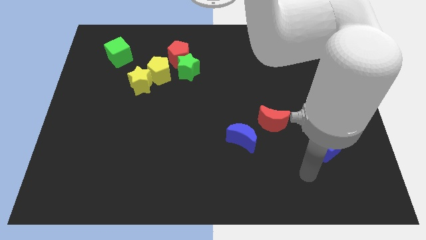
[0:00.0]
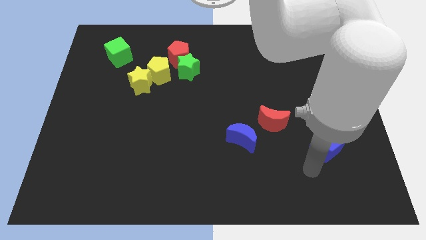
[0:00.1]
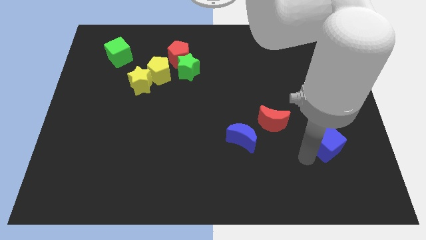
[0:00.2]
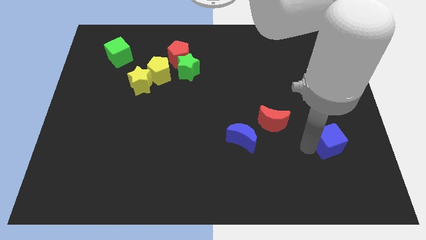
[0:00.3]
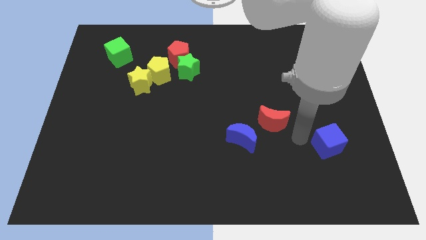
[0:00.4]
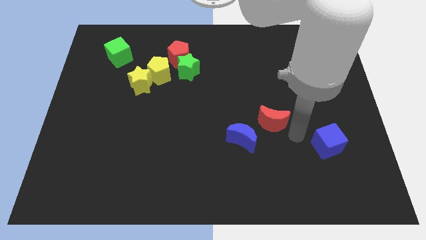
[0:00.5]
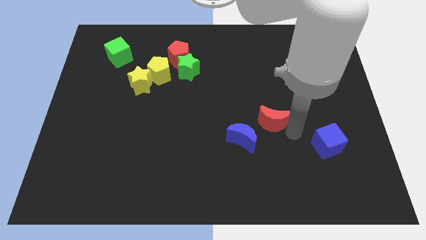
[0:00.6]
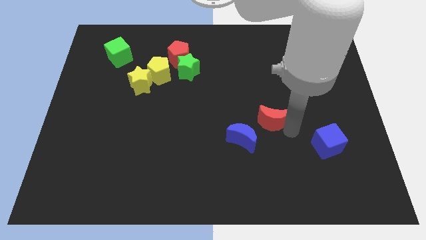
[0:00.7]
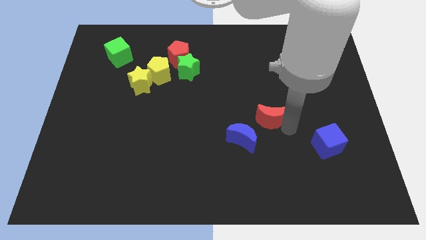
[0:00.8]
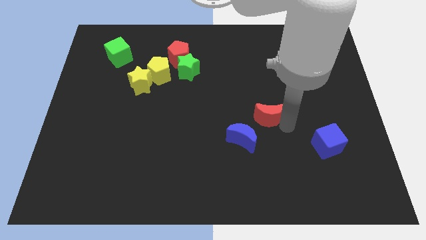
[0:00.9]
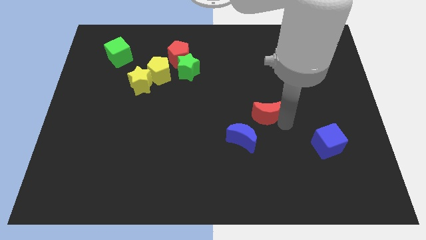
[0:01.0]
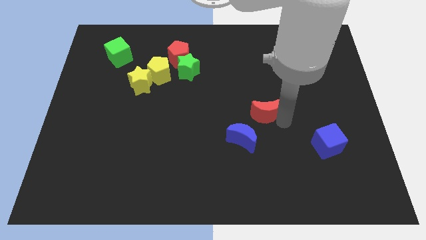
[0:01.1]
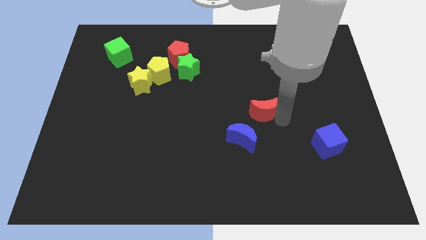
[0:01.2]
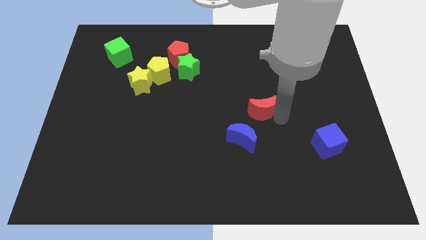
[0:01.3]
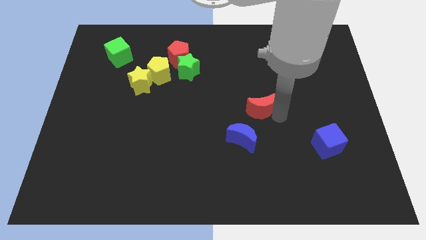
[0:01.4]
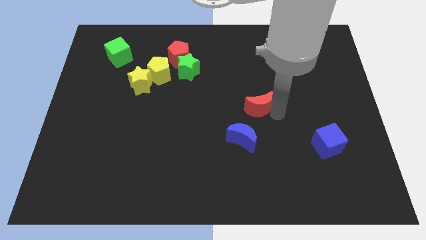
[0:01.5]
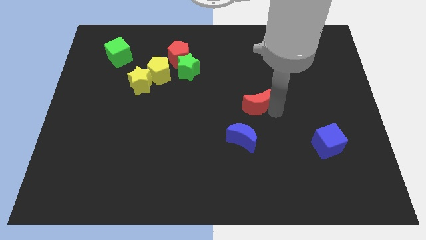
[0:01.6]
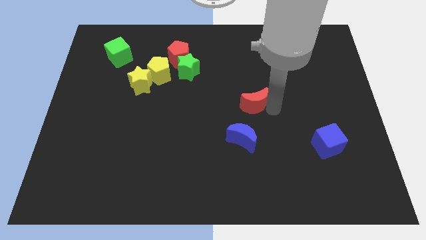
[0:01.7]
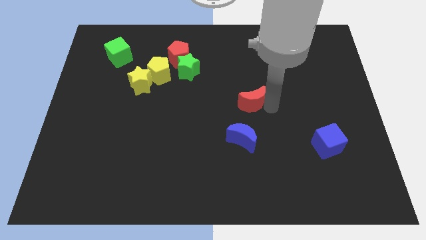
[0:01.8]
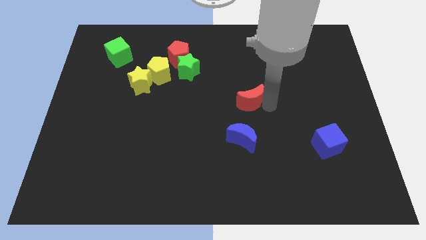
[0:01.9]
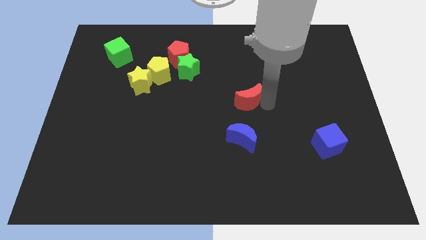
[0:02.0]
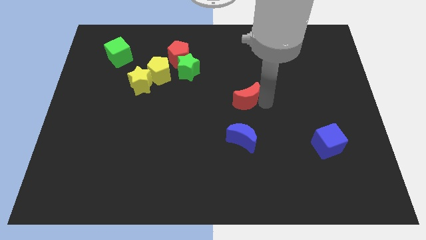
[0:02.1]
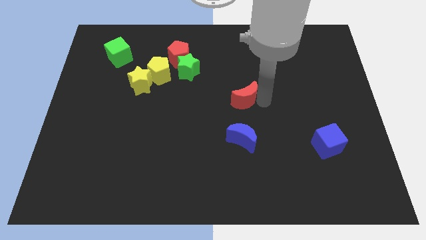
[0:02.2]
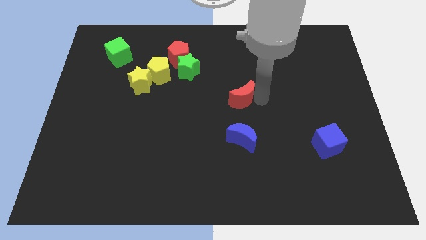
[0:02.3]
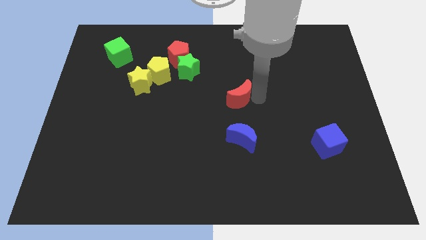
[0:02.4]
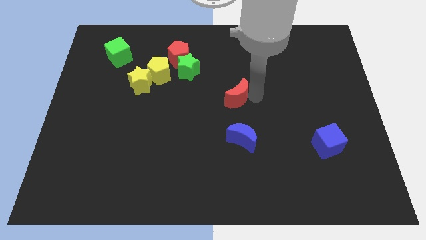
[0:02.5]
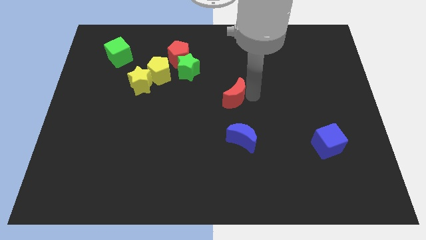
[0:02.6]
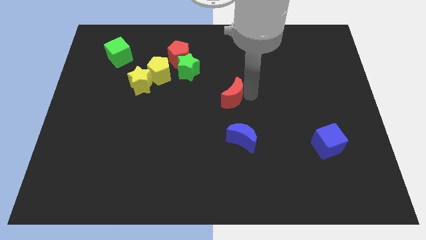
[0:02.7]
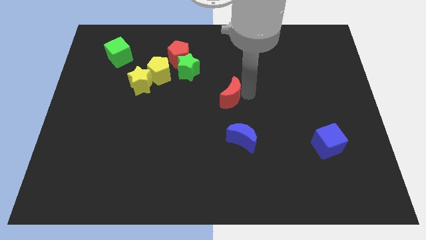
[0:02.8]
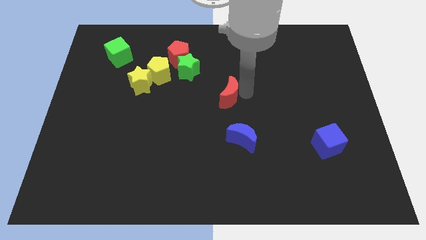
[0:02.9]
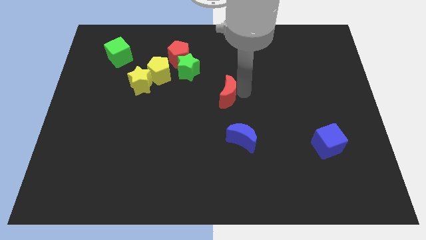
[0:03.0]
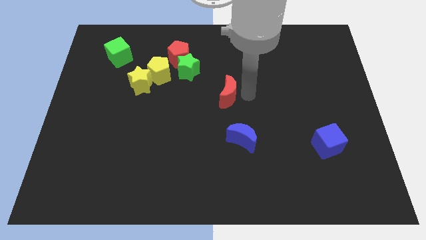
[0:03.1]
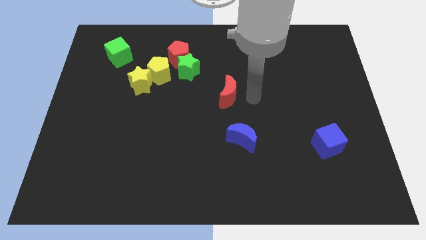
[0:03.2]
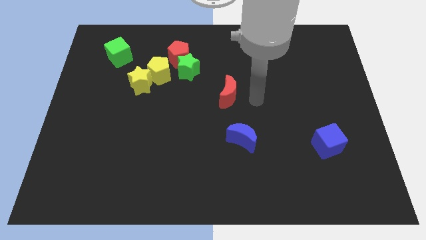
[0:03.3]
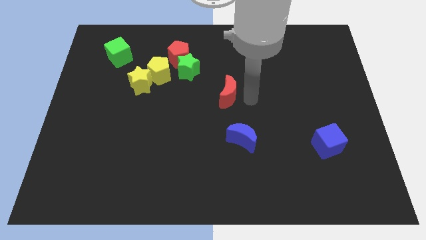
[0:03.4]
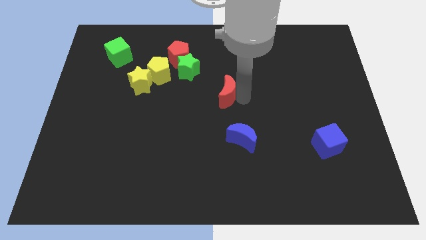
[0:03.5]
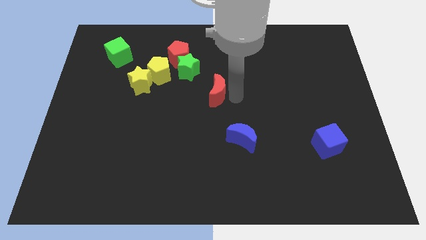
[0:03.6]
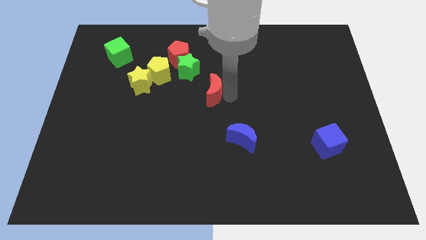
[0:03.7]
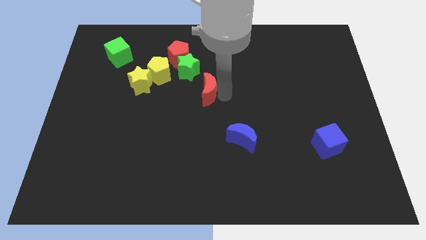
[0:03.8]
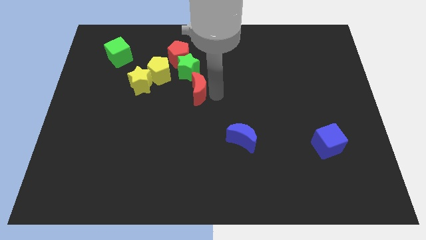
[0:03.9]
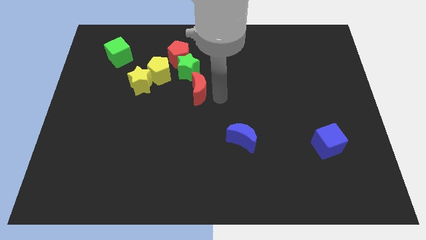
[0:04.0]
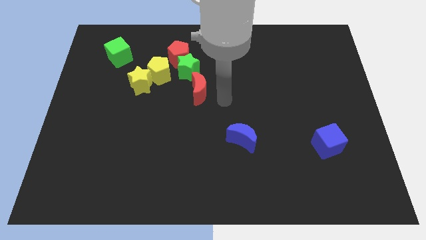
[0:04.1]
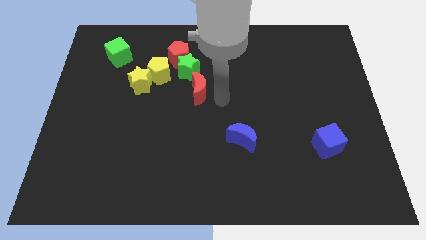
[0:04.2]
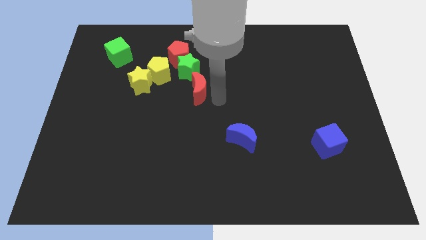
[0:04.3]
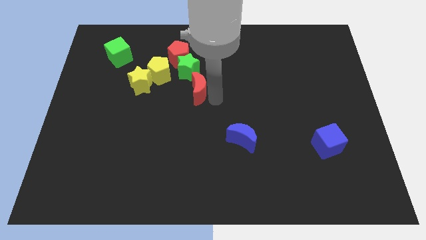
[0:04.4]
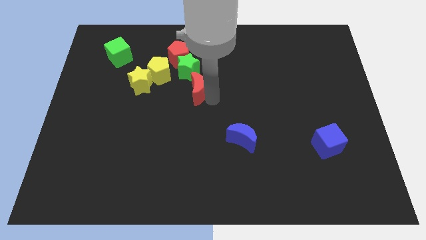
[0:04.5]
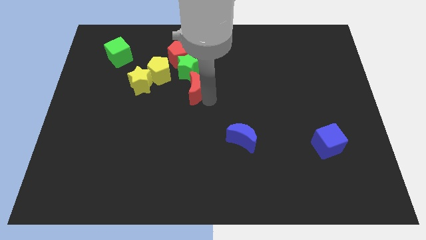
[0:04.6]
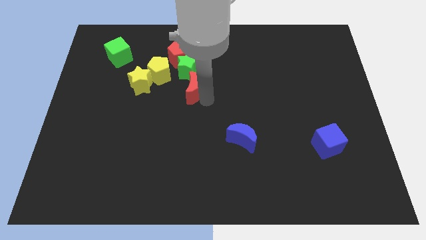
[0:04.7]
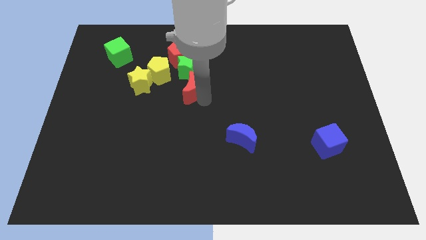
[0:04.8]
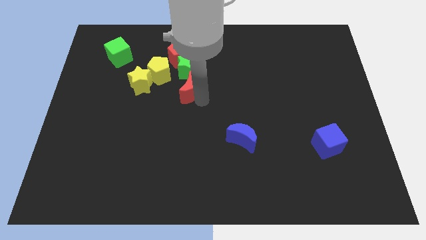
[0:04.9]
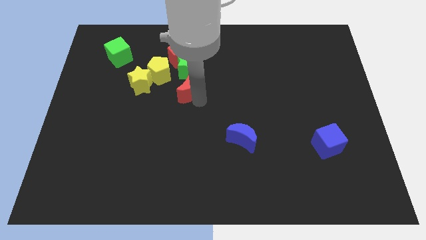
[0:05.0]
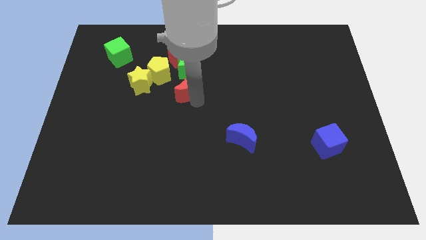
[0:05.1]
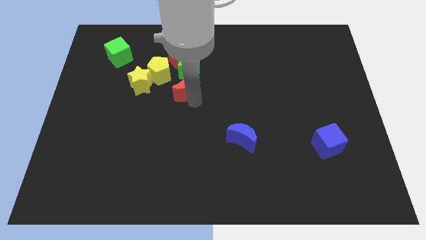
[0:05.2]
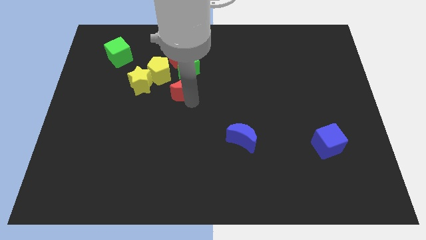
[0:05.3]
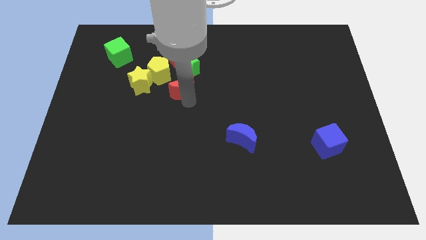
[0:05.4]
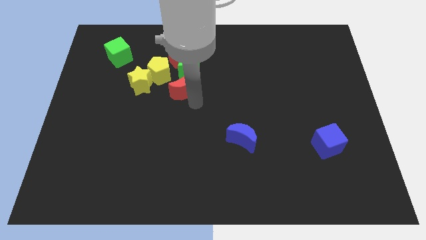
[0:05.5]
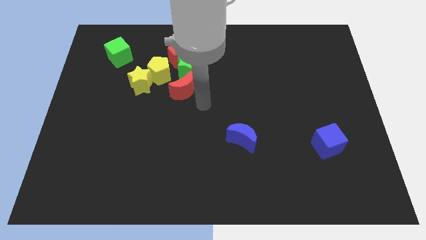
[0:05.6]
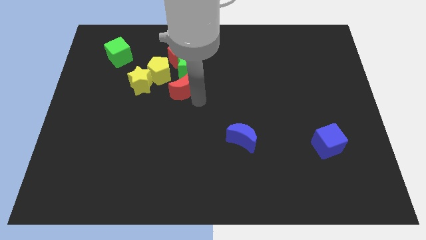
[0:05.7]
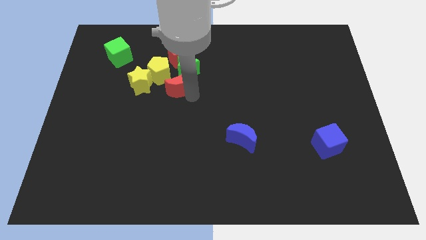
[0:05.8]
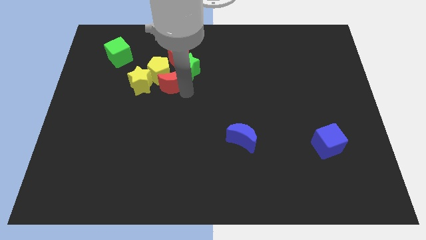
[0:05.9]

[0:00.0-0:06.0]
move the red moon close to the yellow pentagon
